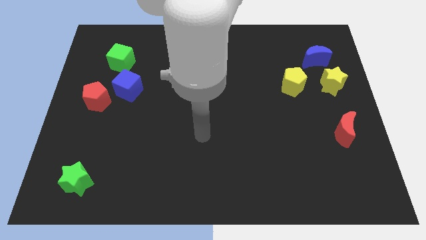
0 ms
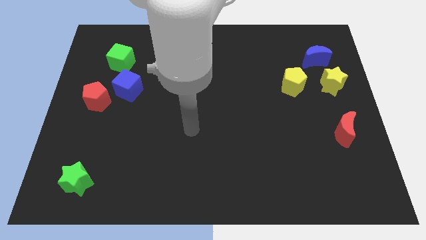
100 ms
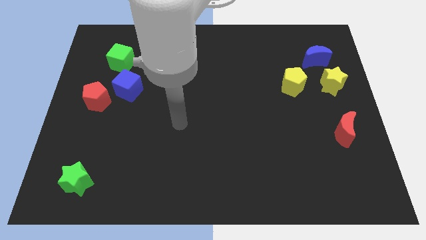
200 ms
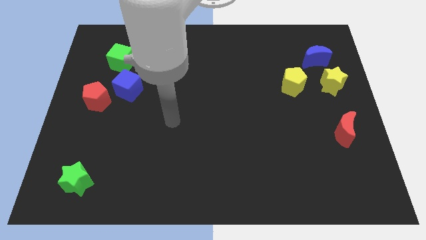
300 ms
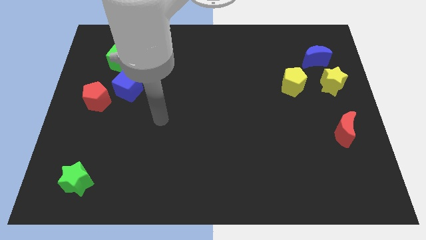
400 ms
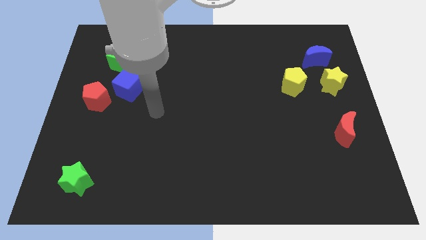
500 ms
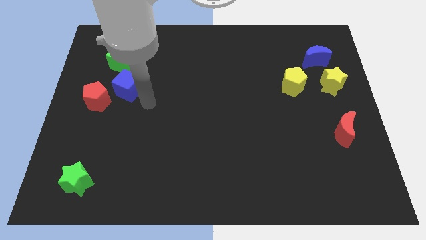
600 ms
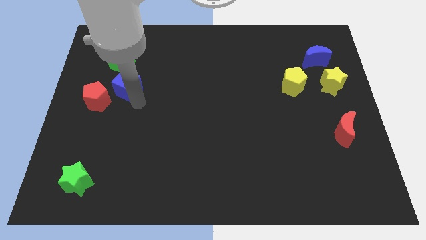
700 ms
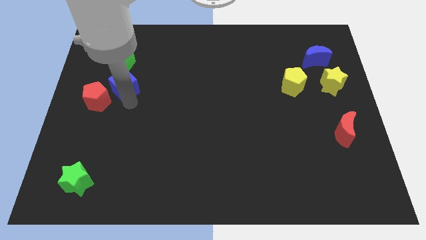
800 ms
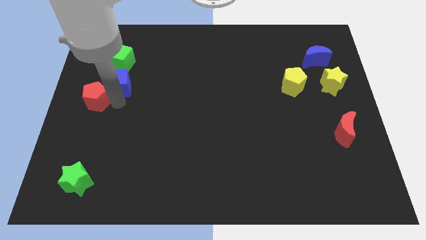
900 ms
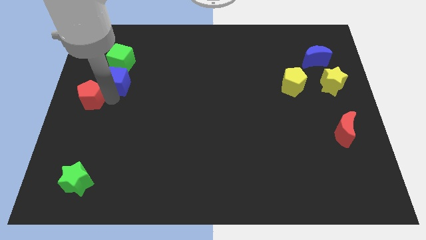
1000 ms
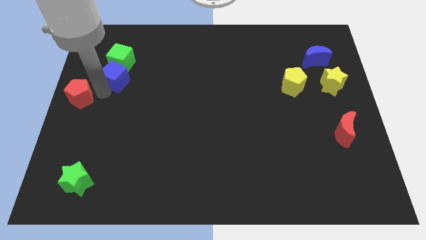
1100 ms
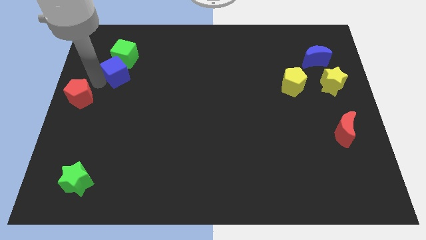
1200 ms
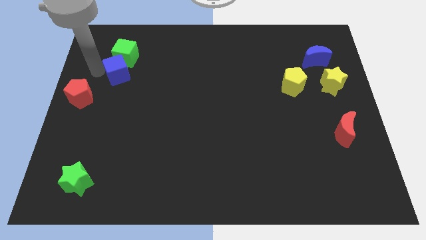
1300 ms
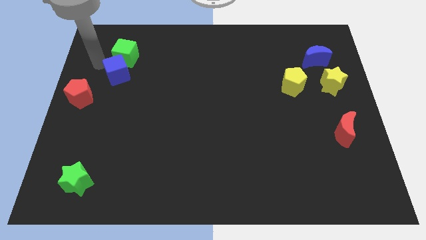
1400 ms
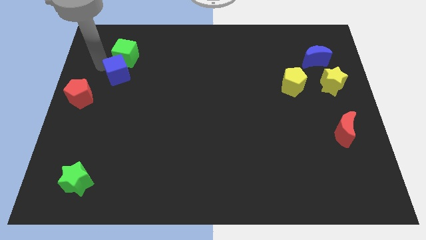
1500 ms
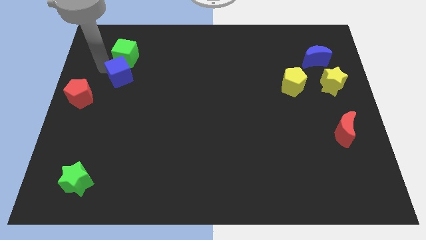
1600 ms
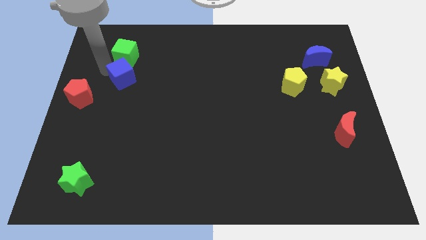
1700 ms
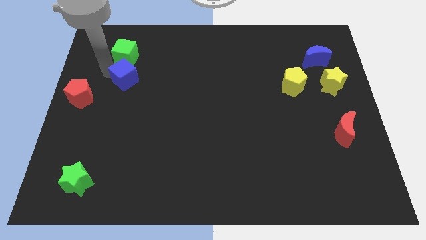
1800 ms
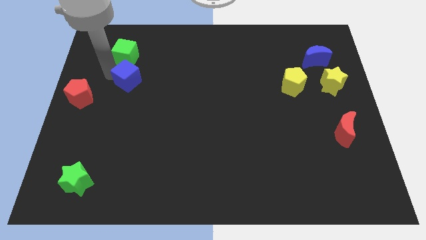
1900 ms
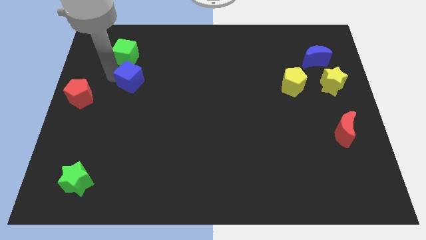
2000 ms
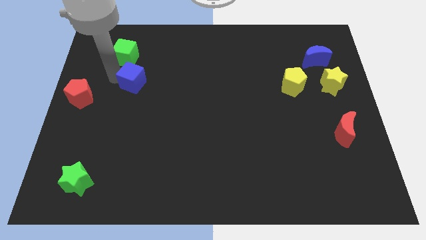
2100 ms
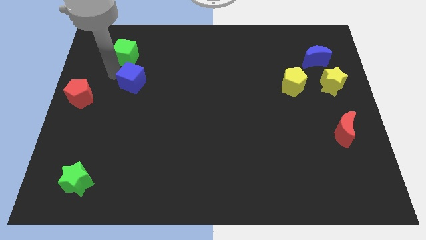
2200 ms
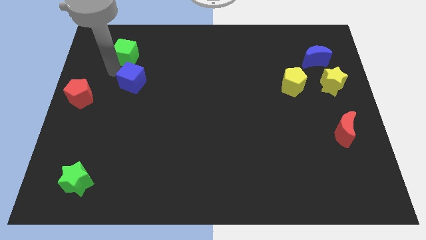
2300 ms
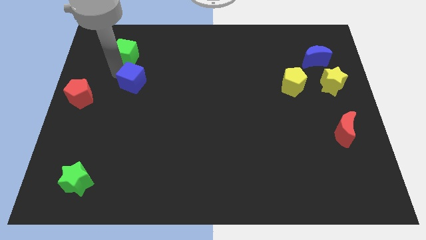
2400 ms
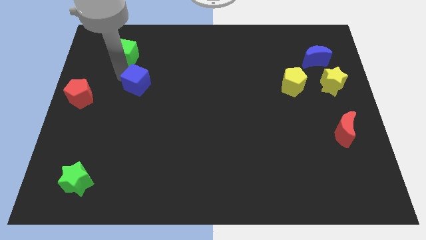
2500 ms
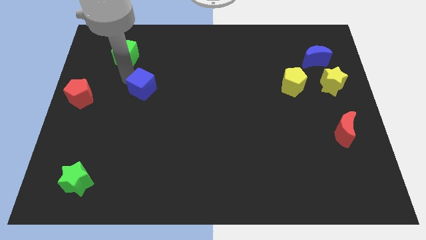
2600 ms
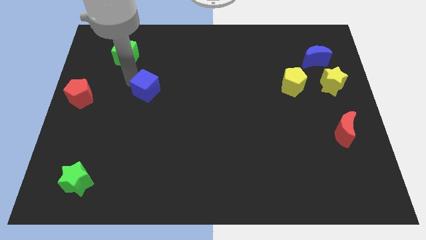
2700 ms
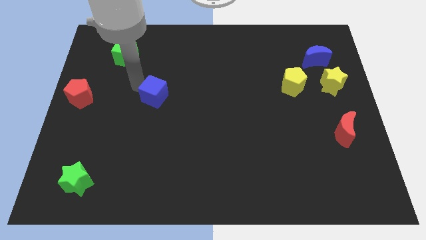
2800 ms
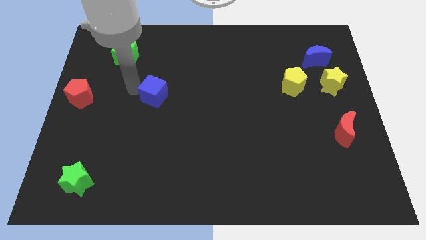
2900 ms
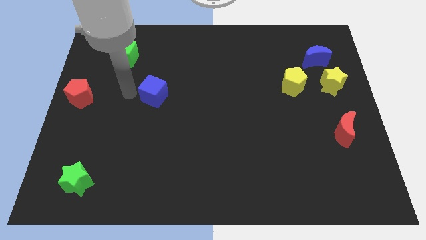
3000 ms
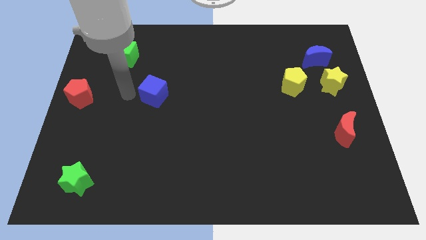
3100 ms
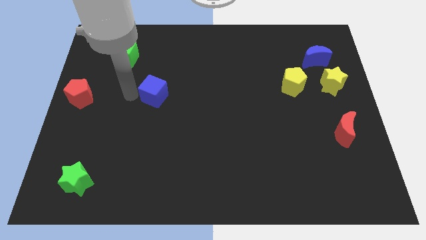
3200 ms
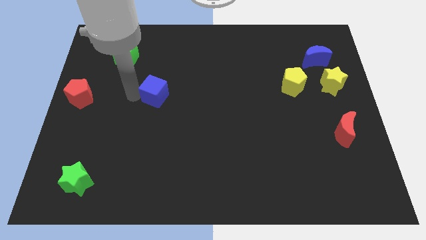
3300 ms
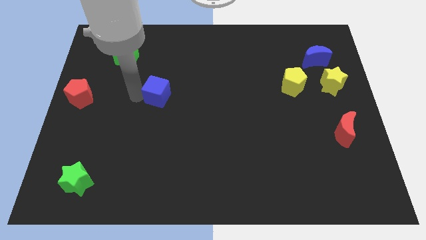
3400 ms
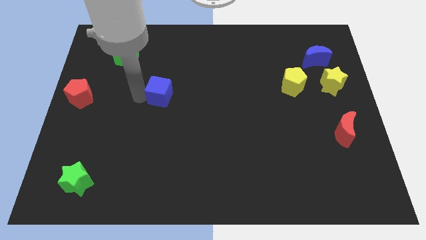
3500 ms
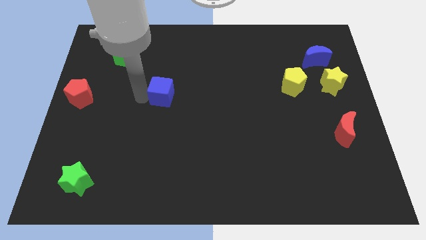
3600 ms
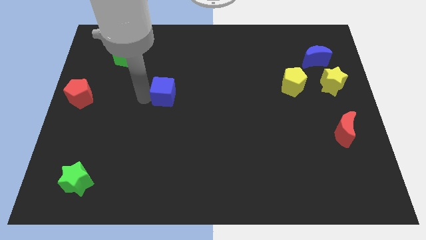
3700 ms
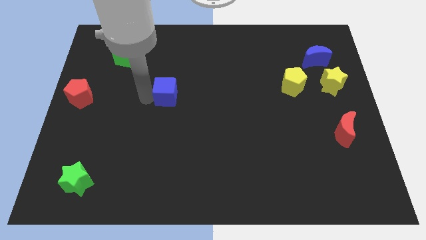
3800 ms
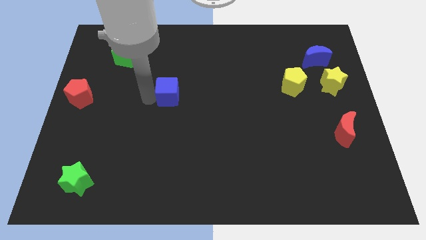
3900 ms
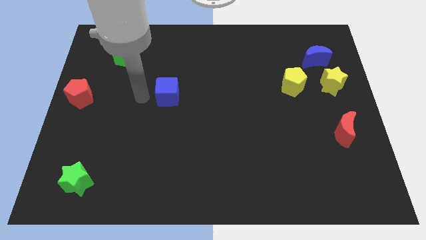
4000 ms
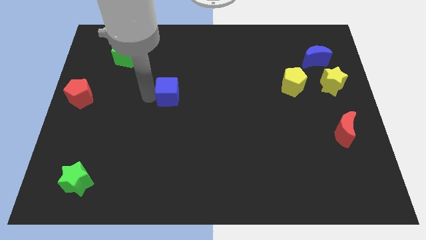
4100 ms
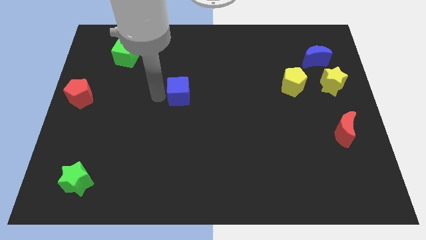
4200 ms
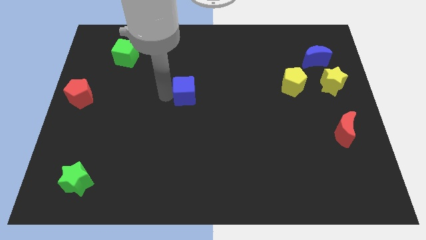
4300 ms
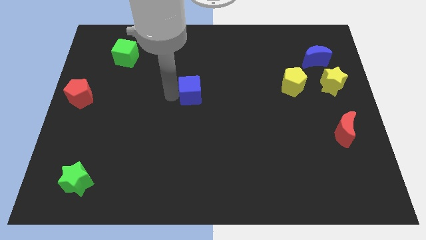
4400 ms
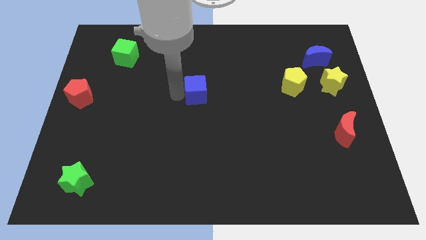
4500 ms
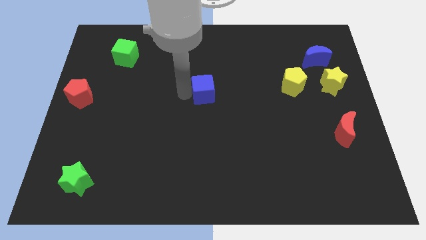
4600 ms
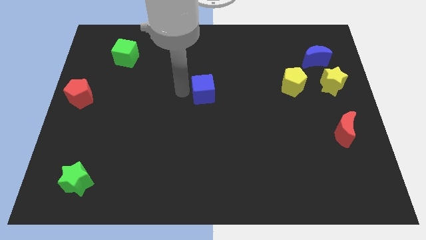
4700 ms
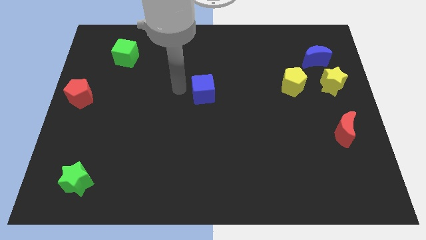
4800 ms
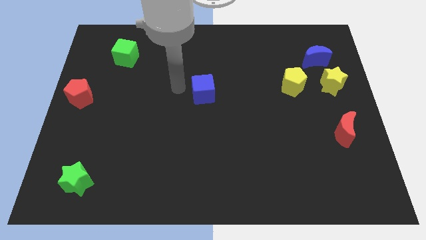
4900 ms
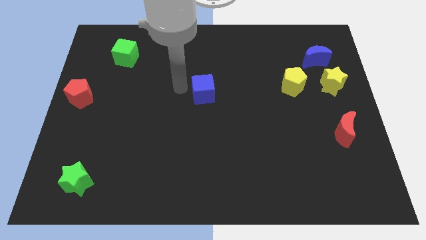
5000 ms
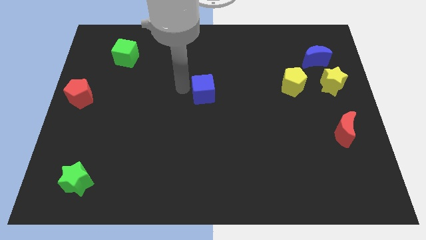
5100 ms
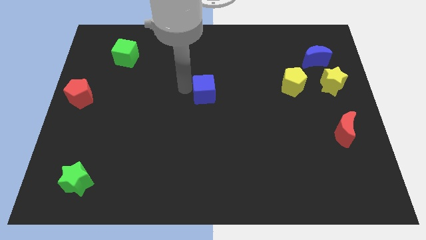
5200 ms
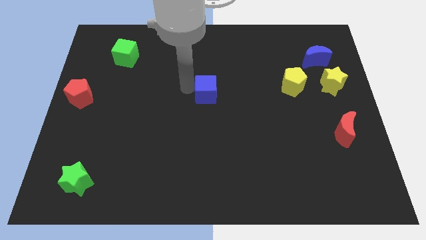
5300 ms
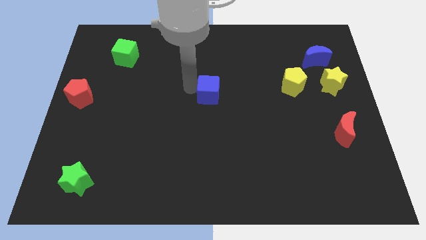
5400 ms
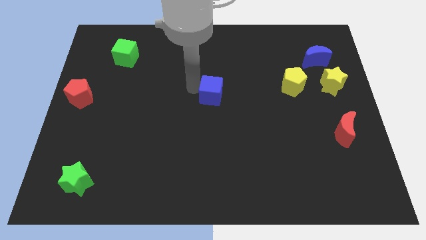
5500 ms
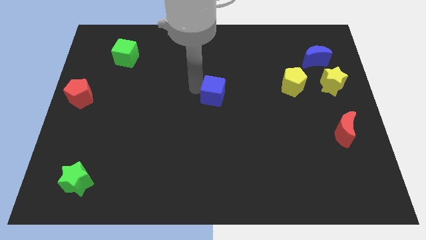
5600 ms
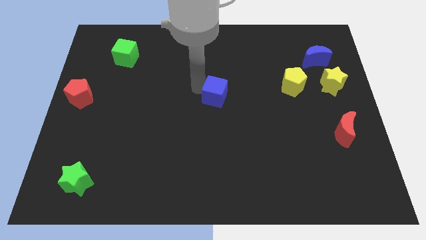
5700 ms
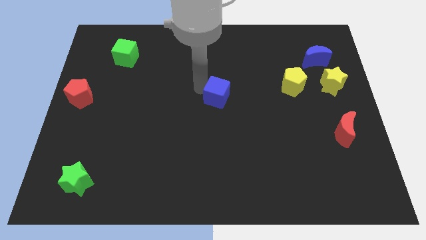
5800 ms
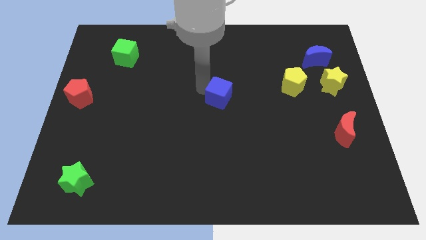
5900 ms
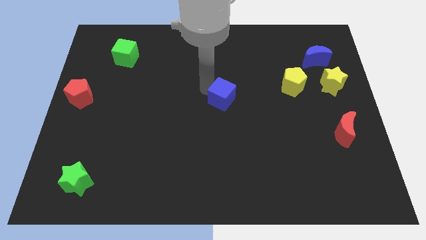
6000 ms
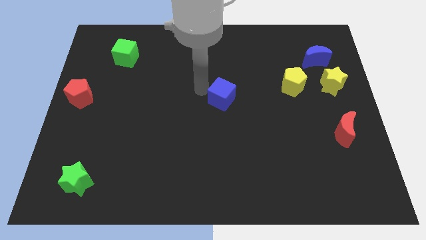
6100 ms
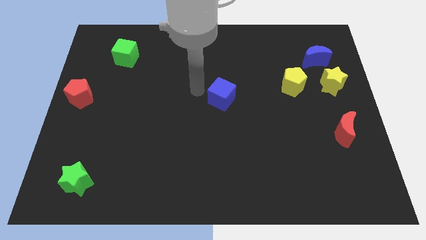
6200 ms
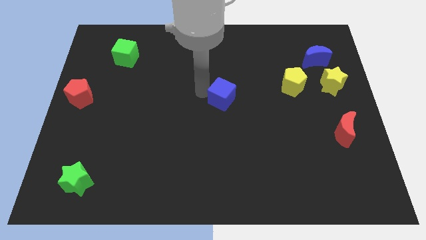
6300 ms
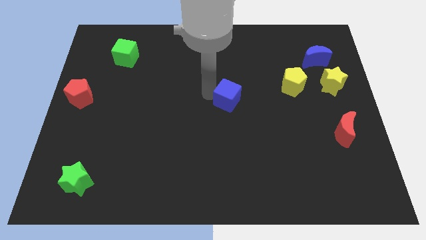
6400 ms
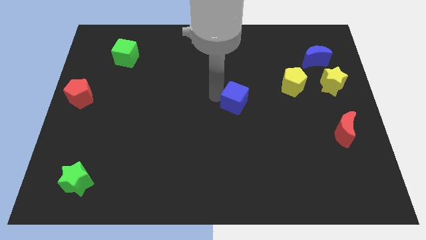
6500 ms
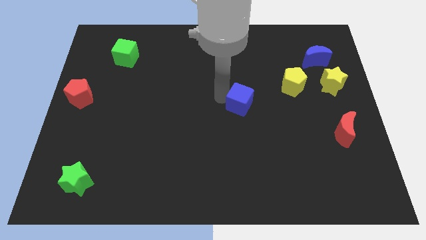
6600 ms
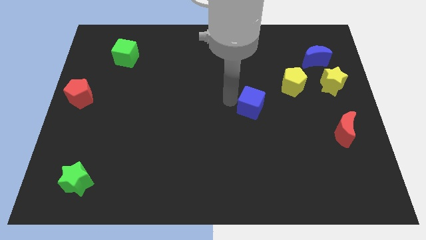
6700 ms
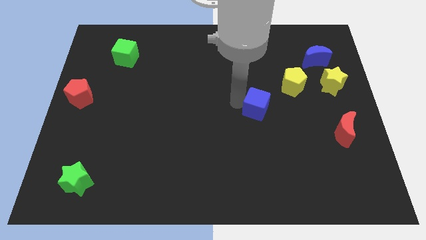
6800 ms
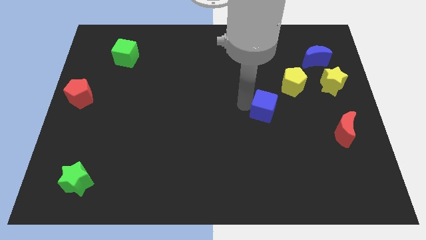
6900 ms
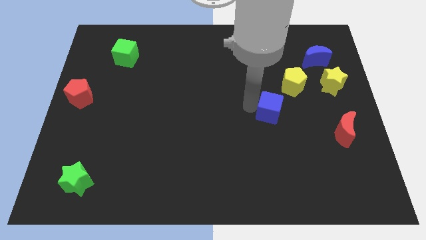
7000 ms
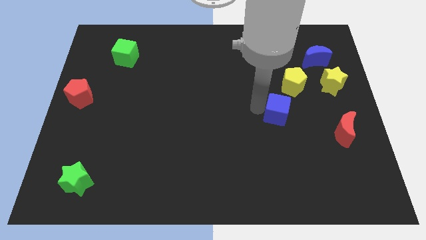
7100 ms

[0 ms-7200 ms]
slide the blue cube to the bottom of the yellow pentagon
